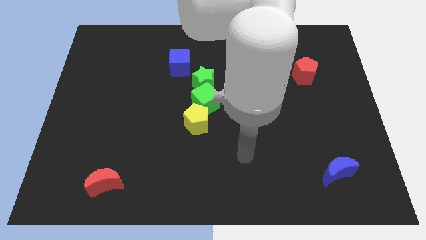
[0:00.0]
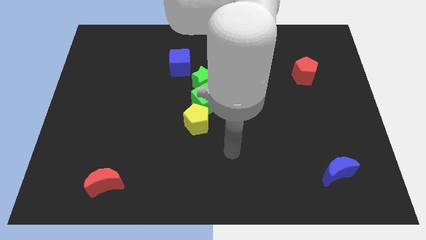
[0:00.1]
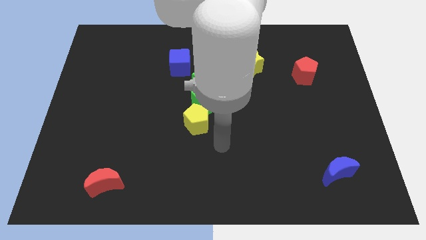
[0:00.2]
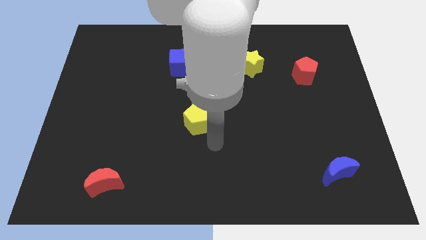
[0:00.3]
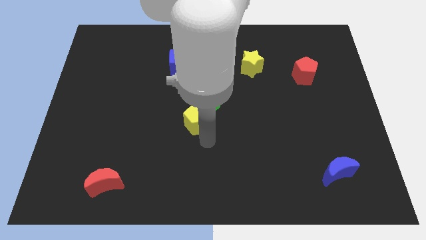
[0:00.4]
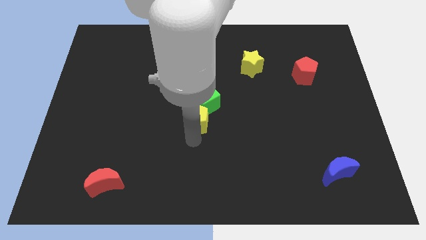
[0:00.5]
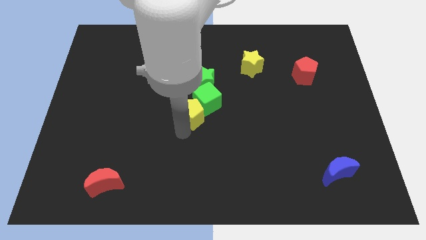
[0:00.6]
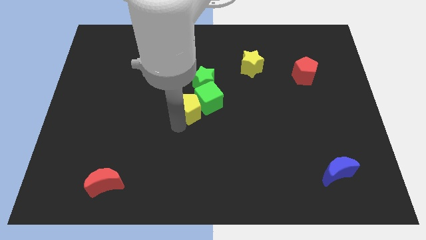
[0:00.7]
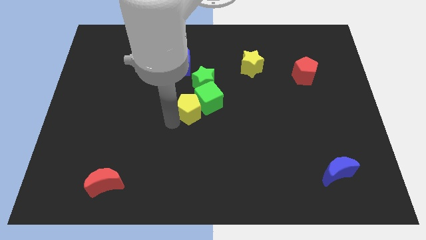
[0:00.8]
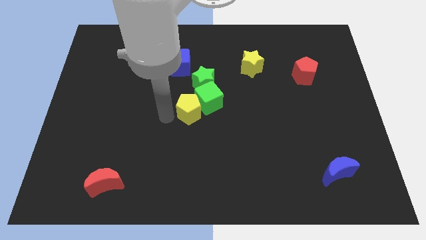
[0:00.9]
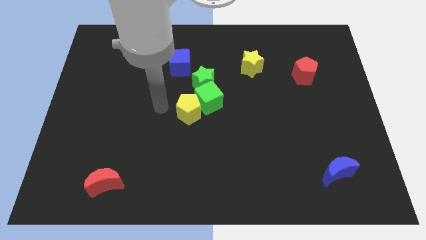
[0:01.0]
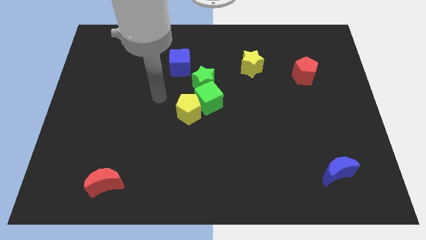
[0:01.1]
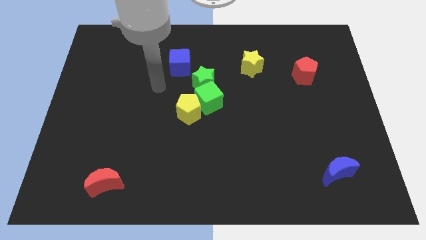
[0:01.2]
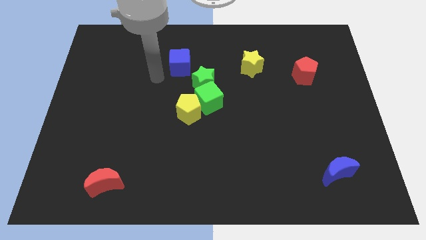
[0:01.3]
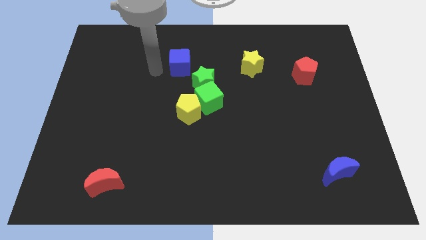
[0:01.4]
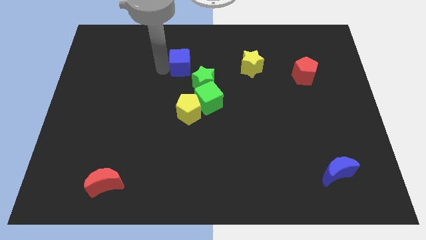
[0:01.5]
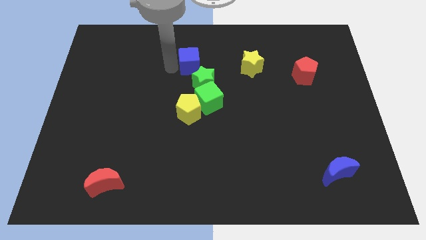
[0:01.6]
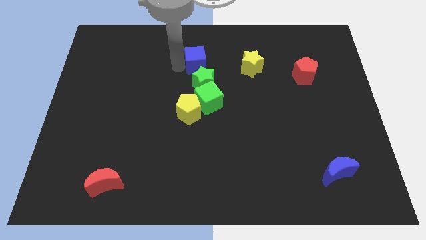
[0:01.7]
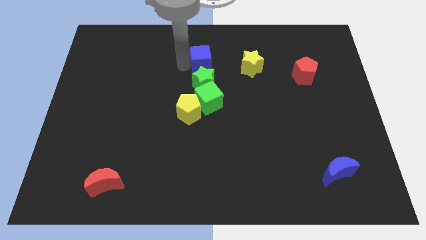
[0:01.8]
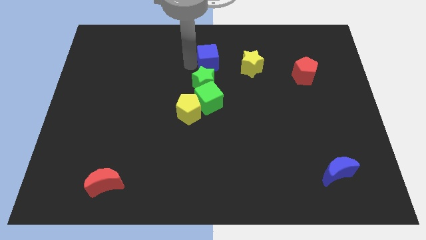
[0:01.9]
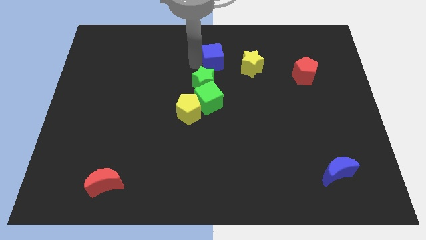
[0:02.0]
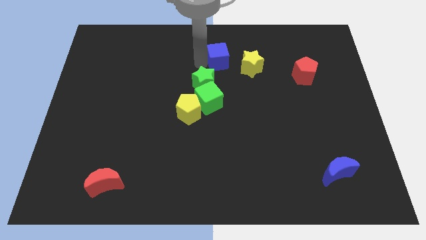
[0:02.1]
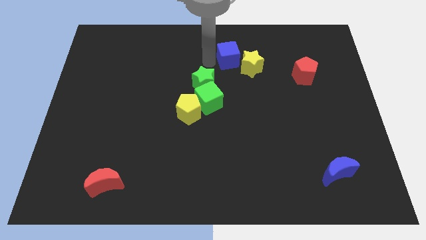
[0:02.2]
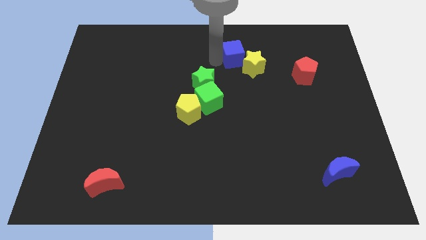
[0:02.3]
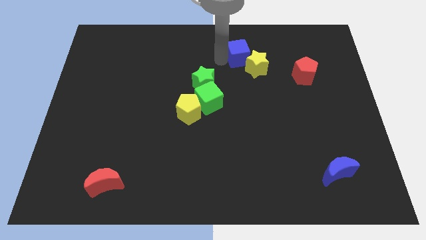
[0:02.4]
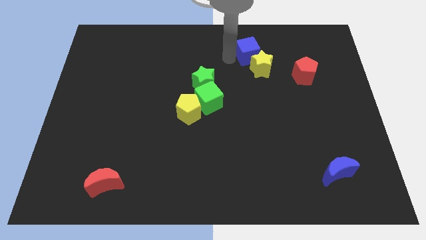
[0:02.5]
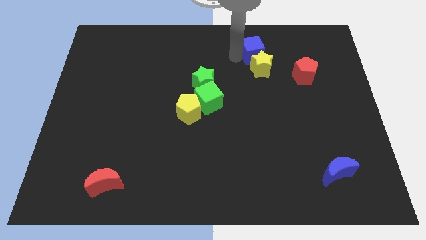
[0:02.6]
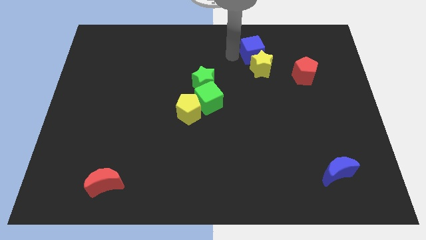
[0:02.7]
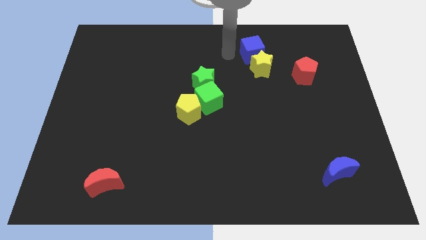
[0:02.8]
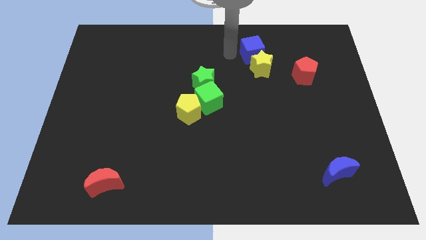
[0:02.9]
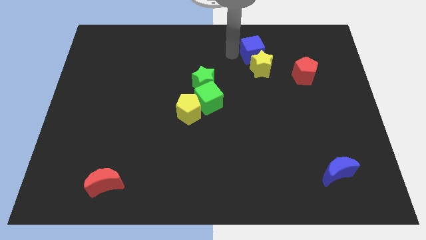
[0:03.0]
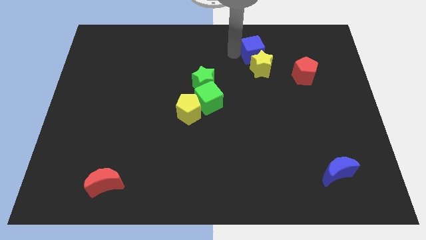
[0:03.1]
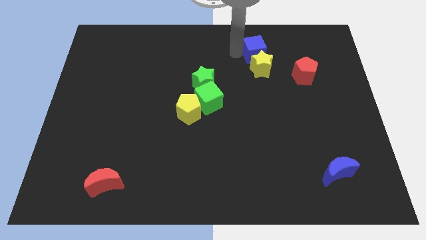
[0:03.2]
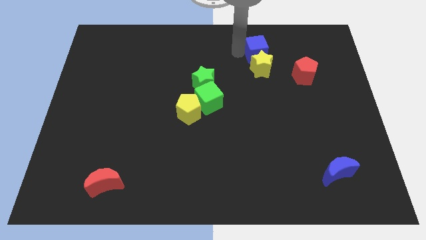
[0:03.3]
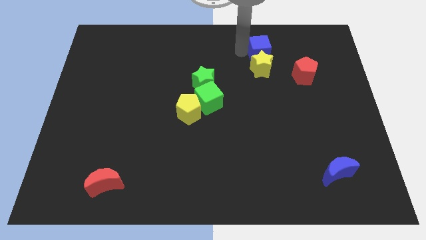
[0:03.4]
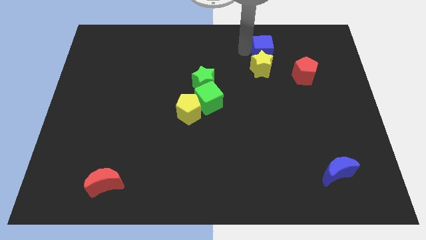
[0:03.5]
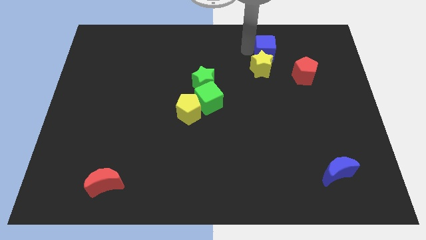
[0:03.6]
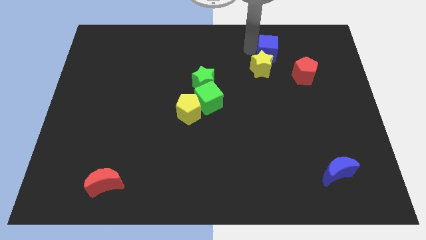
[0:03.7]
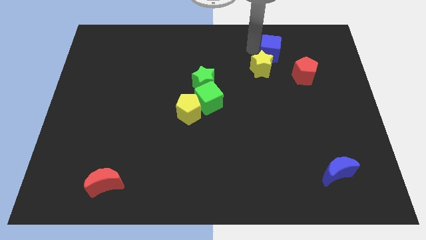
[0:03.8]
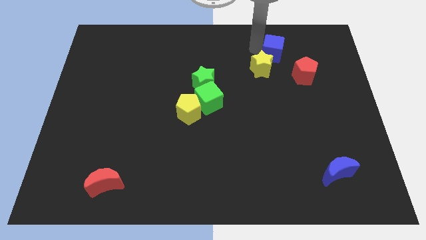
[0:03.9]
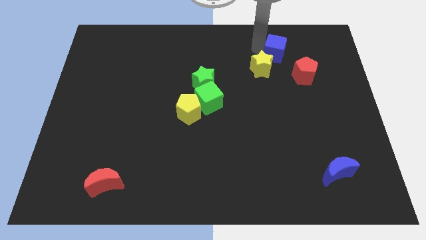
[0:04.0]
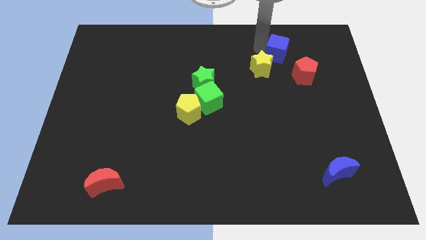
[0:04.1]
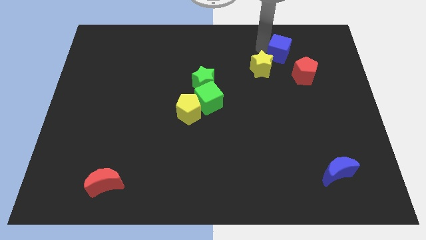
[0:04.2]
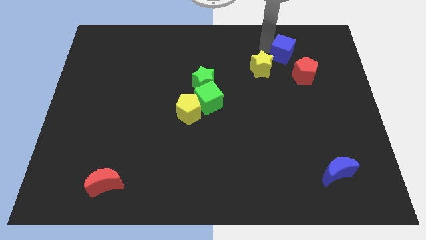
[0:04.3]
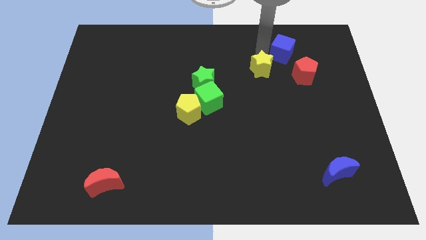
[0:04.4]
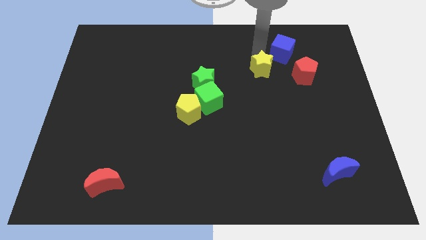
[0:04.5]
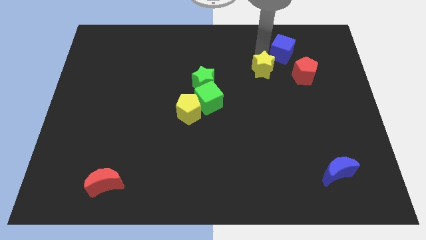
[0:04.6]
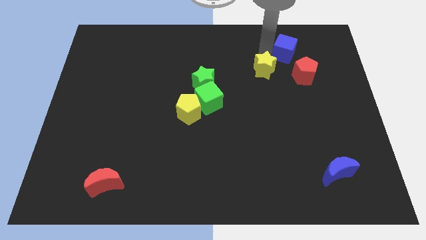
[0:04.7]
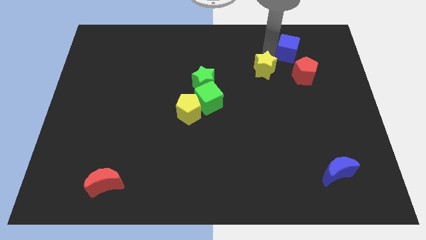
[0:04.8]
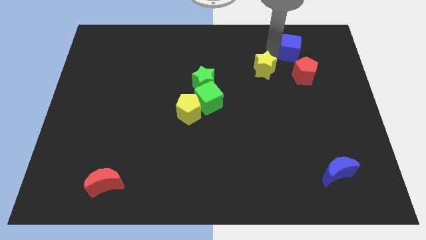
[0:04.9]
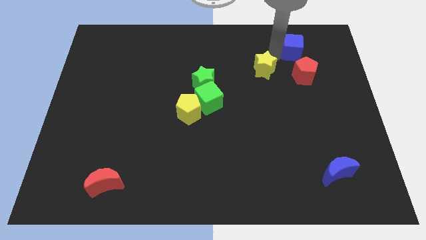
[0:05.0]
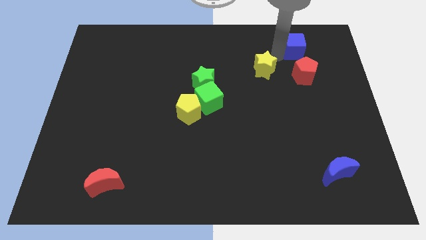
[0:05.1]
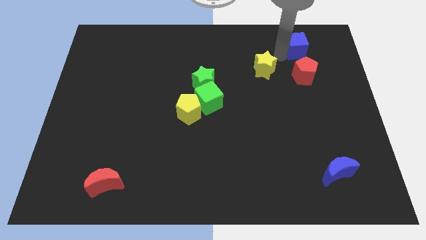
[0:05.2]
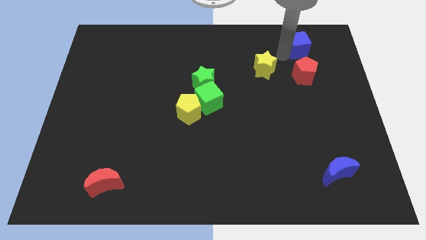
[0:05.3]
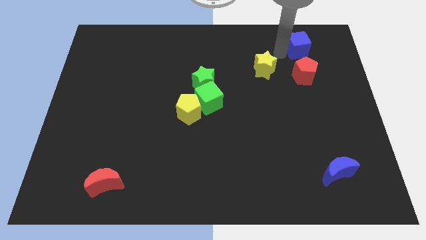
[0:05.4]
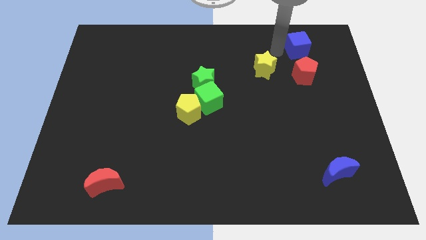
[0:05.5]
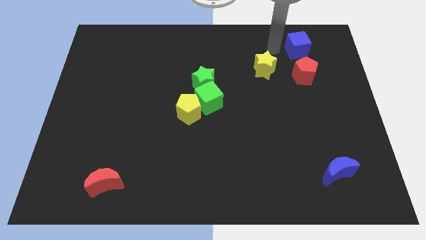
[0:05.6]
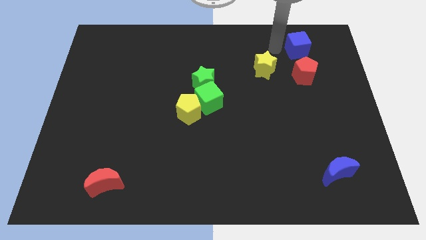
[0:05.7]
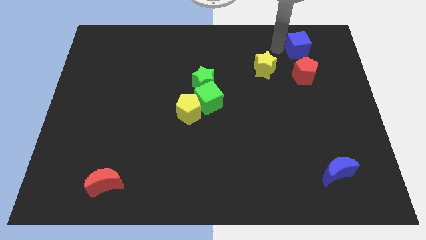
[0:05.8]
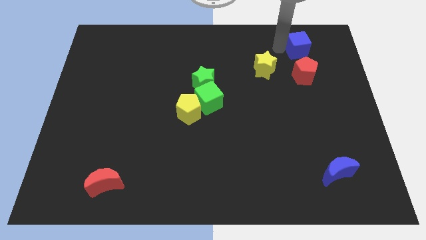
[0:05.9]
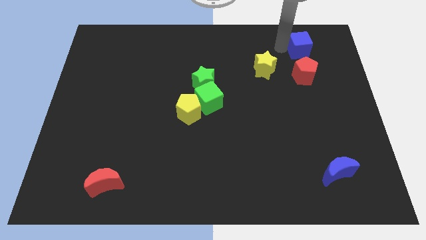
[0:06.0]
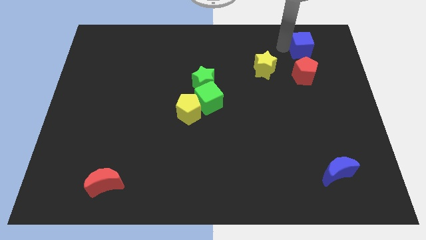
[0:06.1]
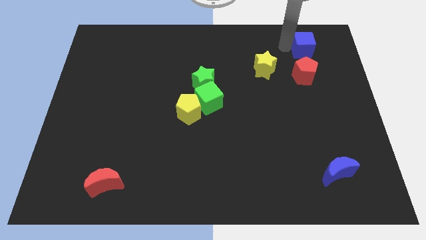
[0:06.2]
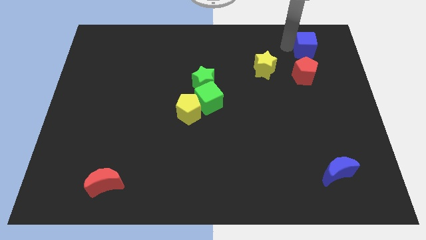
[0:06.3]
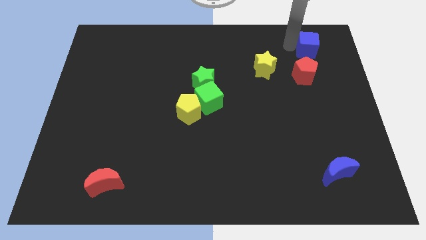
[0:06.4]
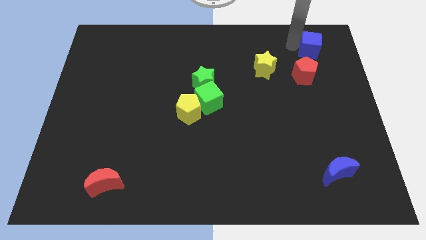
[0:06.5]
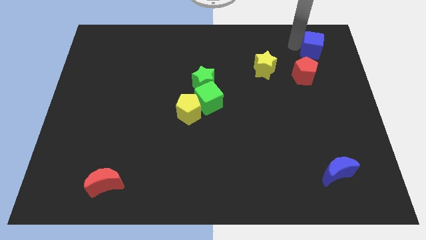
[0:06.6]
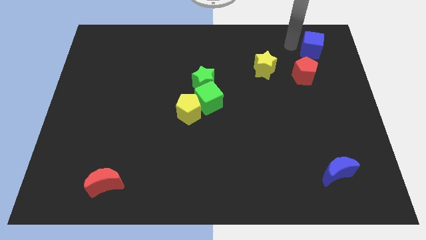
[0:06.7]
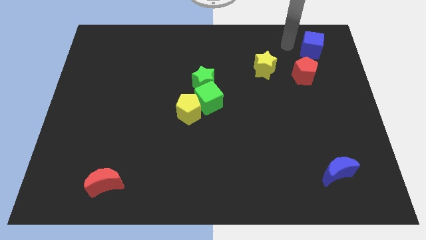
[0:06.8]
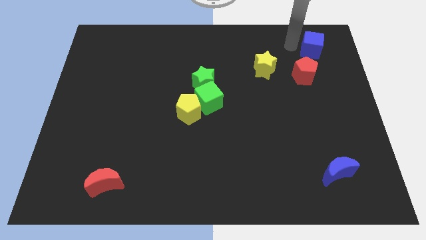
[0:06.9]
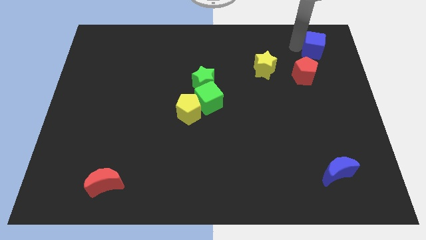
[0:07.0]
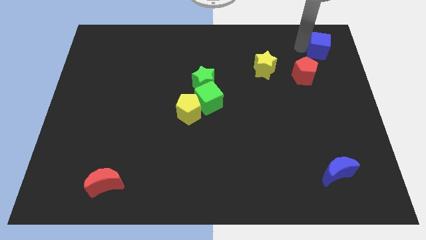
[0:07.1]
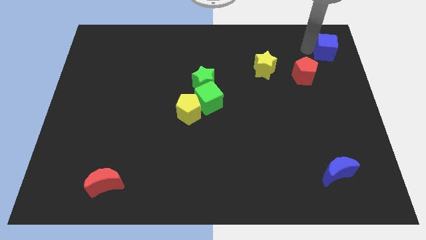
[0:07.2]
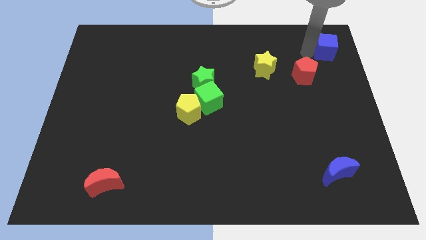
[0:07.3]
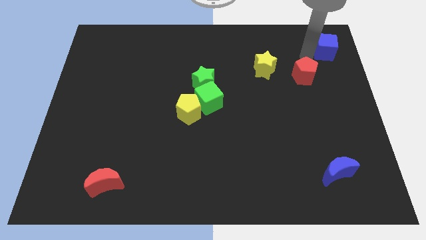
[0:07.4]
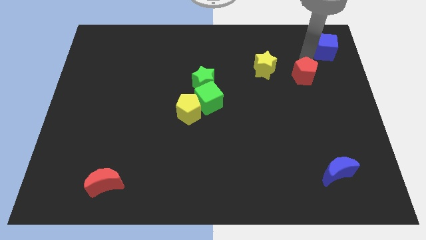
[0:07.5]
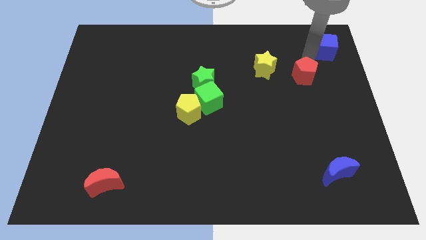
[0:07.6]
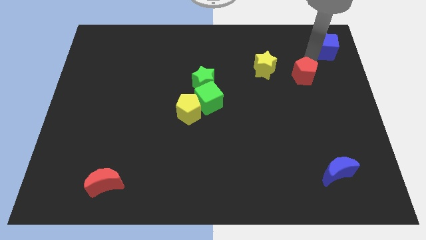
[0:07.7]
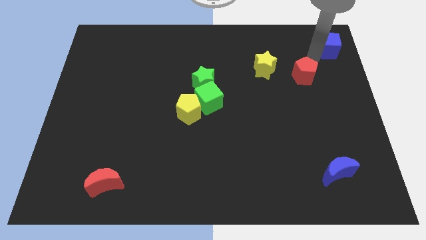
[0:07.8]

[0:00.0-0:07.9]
move the blue cube to the top right
